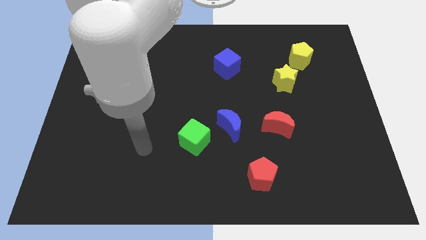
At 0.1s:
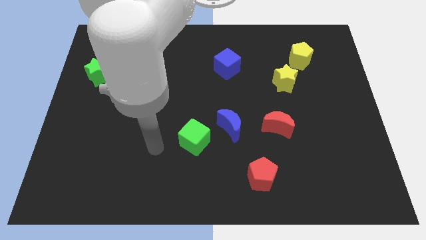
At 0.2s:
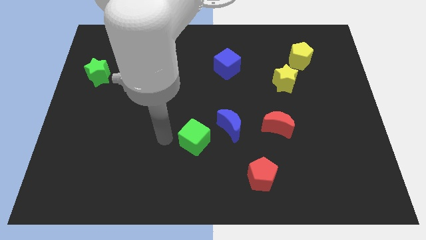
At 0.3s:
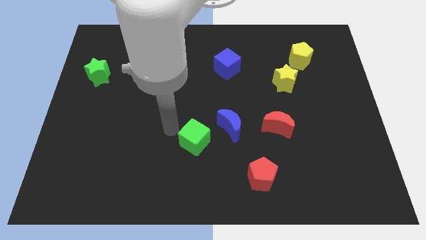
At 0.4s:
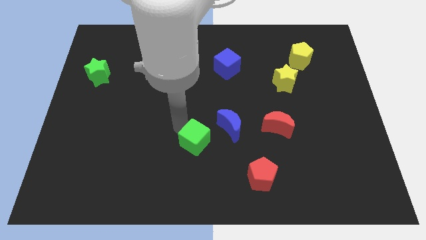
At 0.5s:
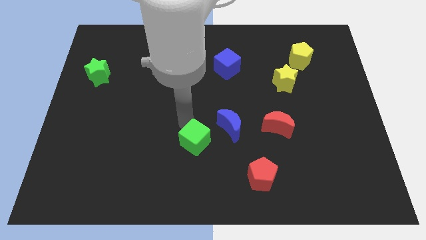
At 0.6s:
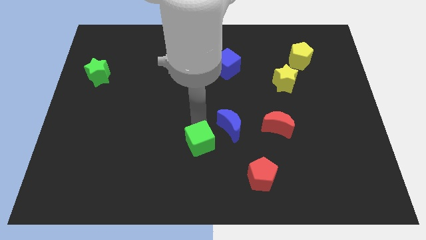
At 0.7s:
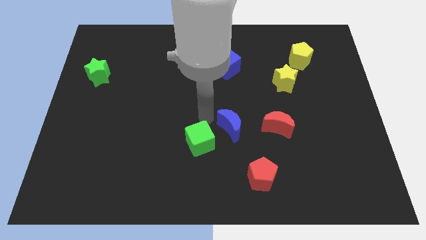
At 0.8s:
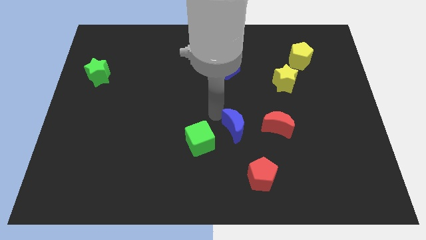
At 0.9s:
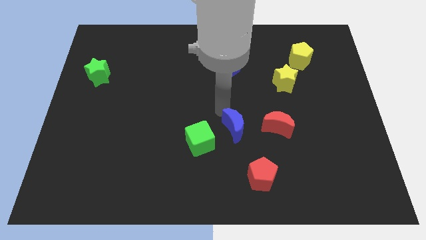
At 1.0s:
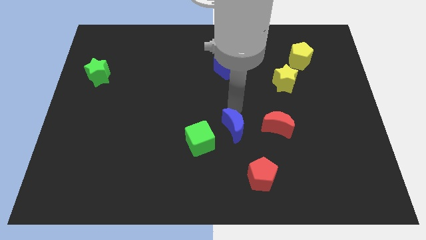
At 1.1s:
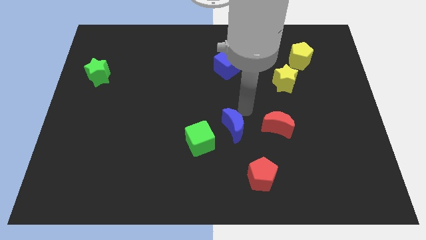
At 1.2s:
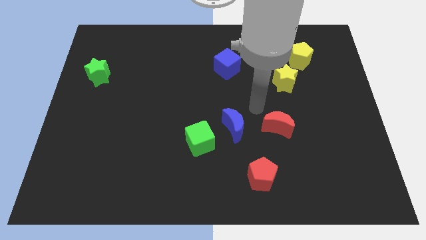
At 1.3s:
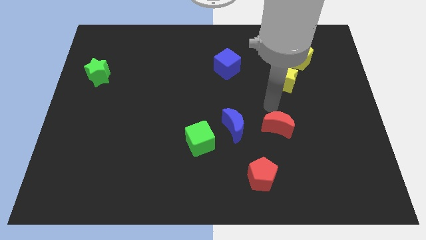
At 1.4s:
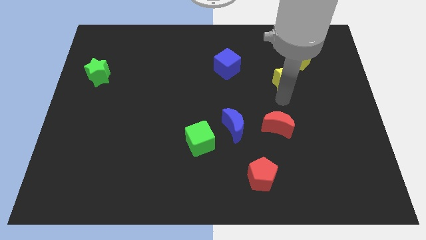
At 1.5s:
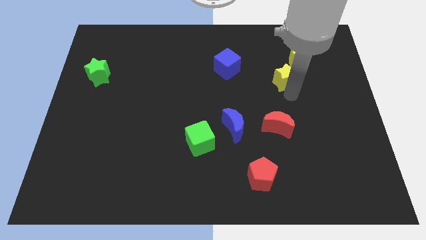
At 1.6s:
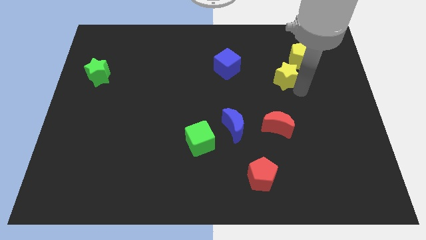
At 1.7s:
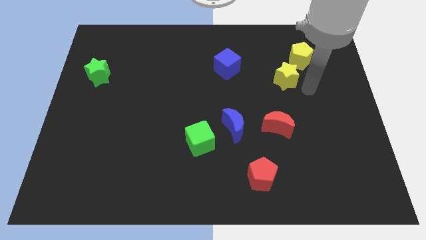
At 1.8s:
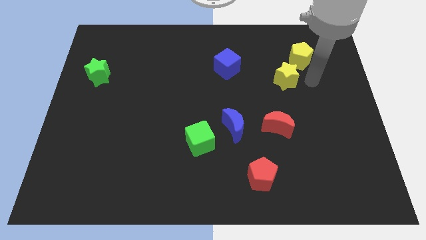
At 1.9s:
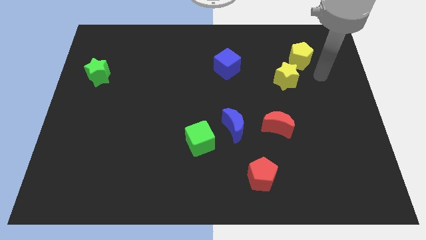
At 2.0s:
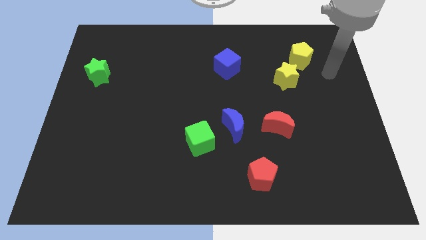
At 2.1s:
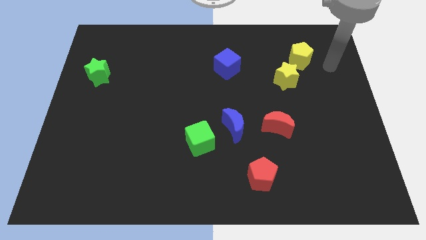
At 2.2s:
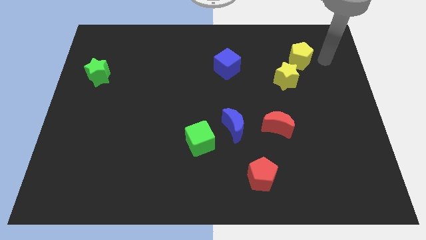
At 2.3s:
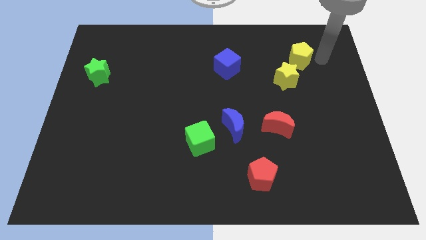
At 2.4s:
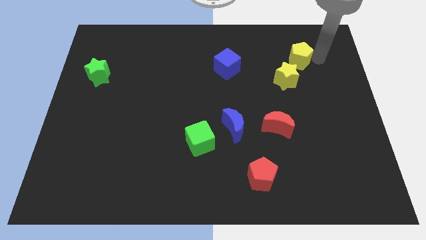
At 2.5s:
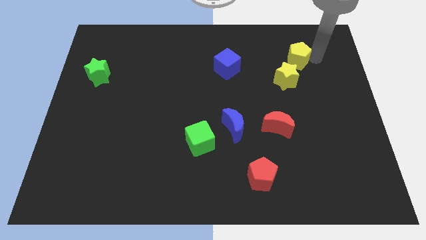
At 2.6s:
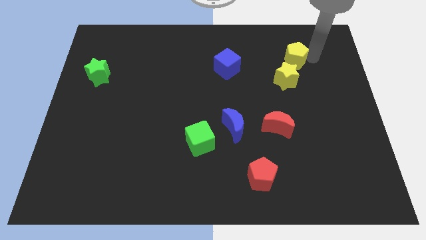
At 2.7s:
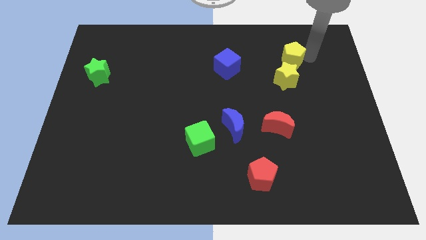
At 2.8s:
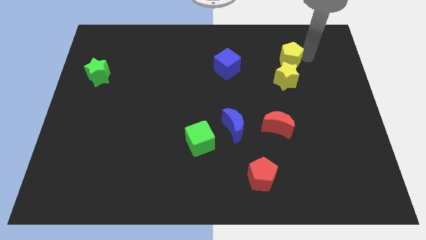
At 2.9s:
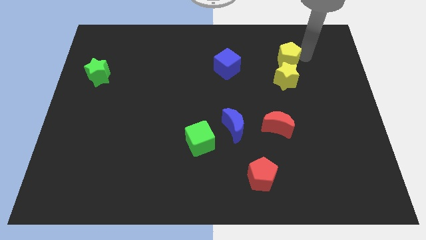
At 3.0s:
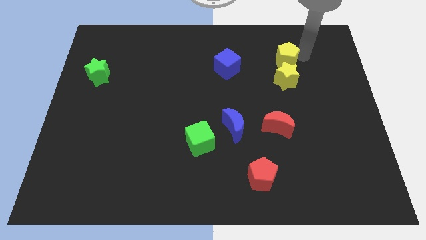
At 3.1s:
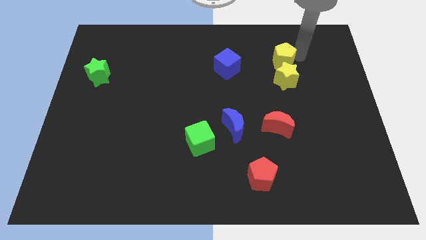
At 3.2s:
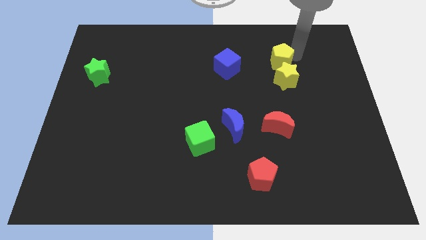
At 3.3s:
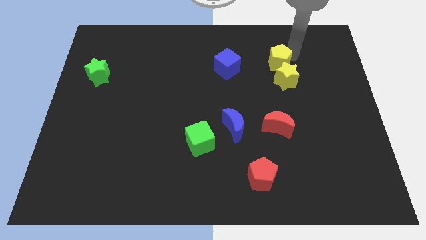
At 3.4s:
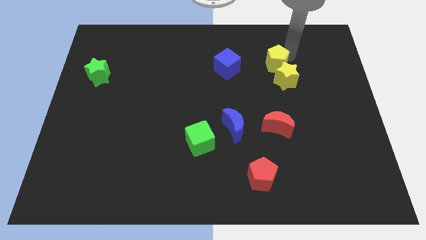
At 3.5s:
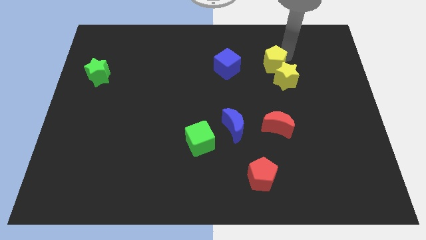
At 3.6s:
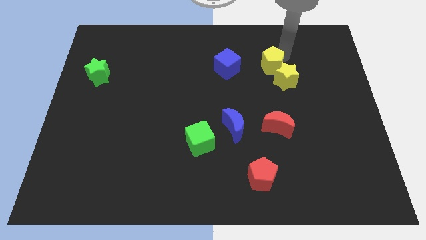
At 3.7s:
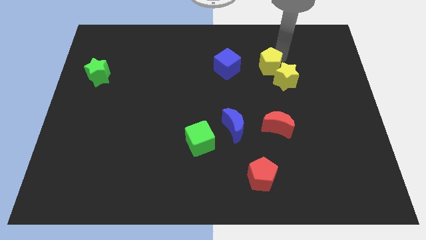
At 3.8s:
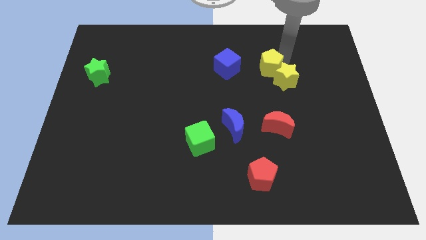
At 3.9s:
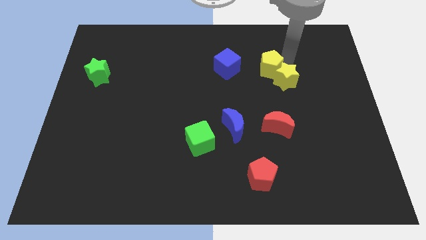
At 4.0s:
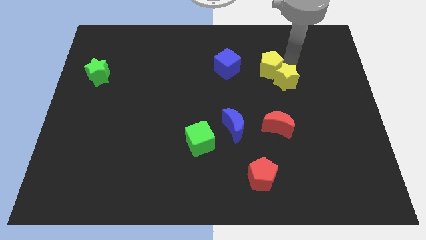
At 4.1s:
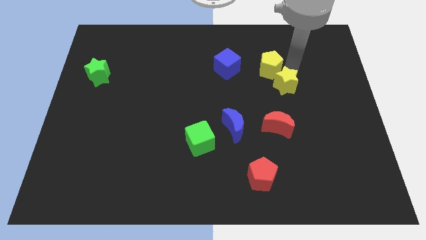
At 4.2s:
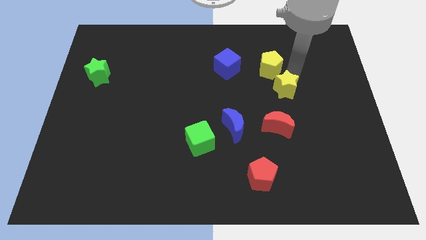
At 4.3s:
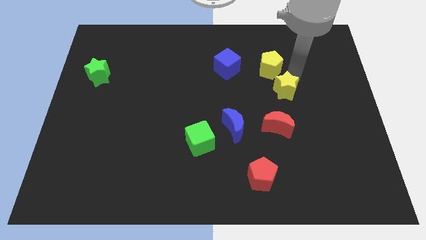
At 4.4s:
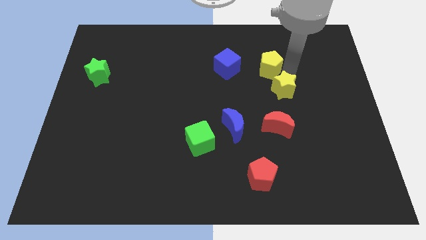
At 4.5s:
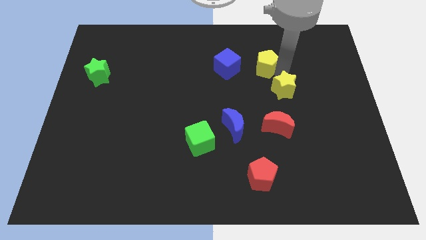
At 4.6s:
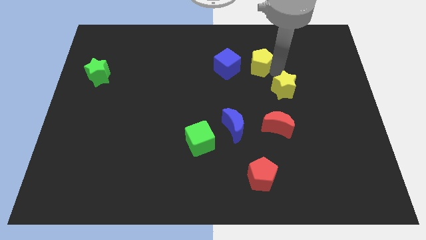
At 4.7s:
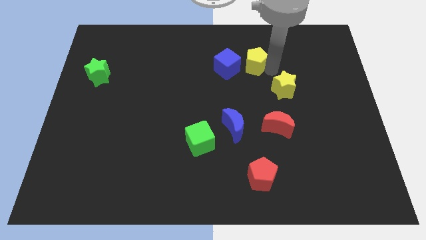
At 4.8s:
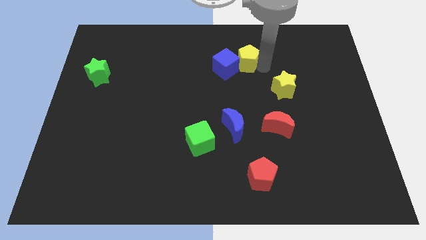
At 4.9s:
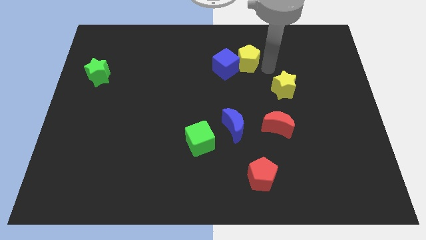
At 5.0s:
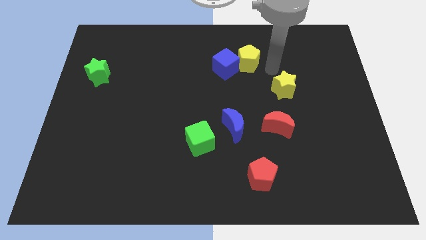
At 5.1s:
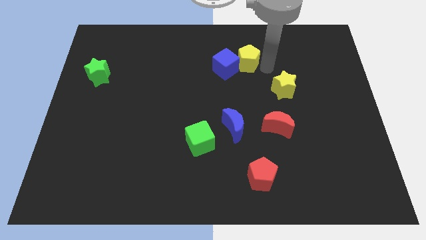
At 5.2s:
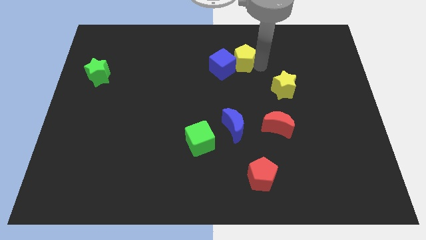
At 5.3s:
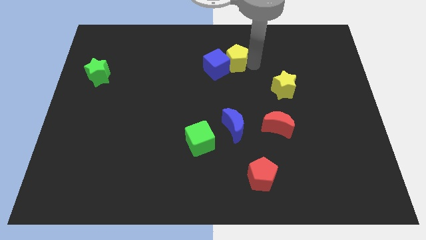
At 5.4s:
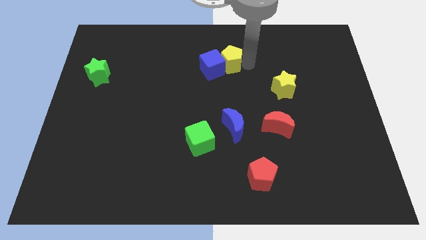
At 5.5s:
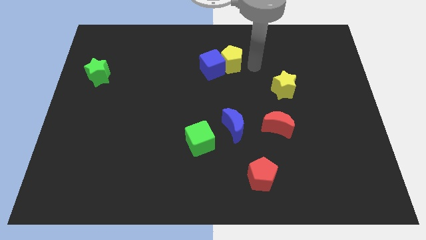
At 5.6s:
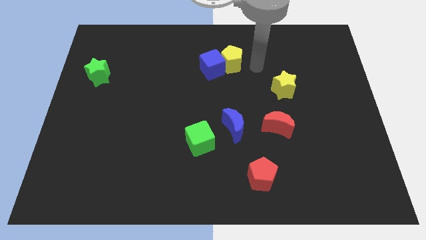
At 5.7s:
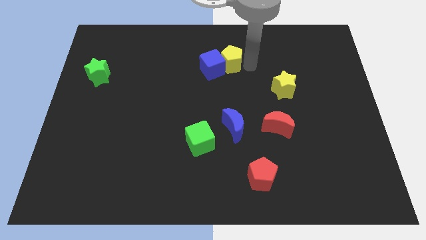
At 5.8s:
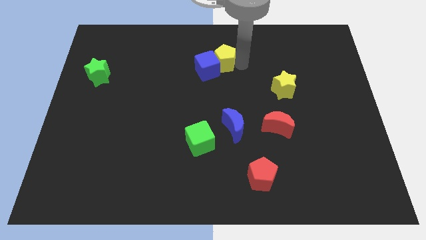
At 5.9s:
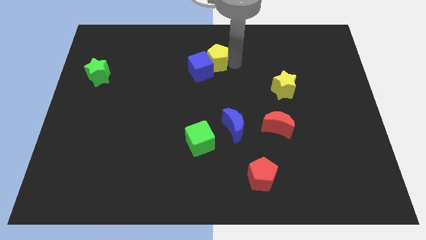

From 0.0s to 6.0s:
slide the yellow pentagon left

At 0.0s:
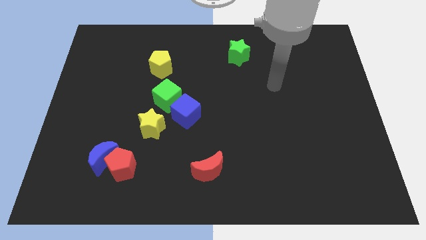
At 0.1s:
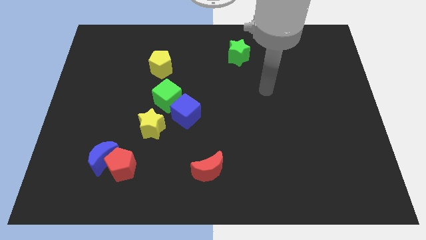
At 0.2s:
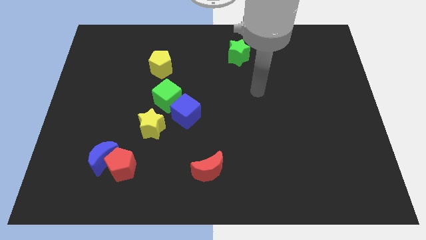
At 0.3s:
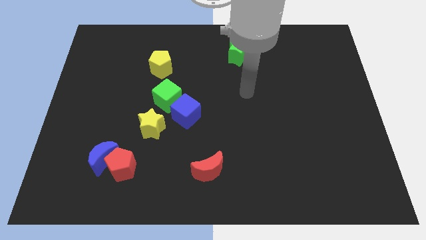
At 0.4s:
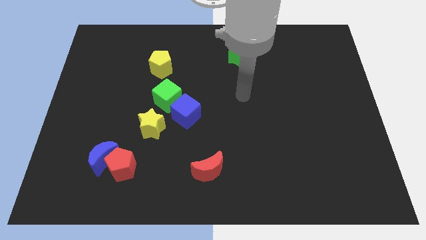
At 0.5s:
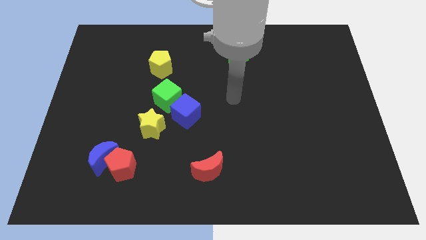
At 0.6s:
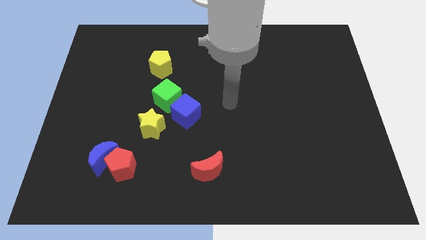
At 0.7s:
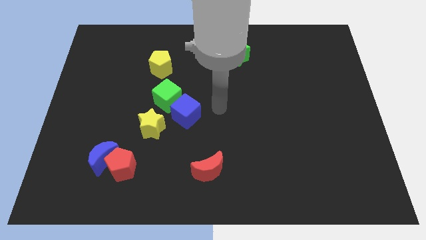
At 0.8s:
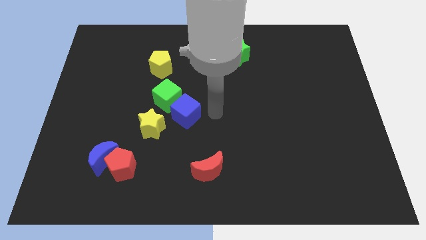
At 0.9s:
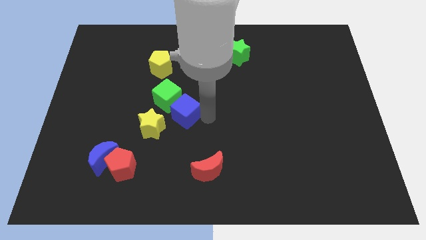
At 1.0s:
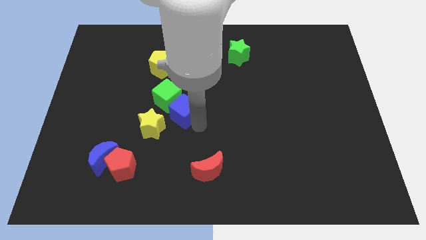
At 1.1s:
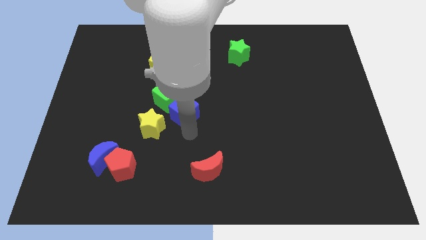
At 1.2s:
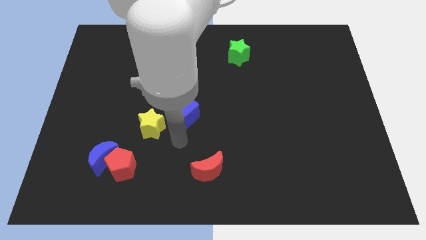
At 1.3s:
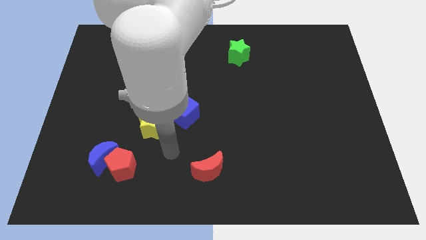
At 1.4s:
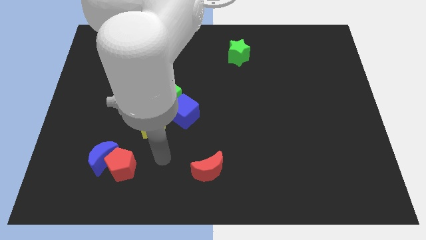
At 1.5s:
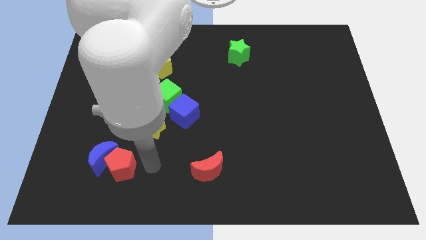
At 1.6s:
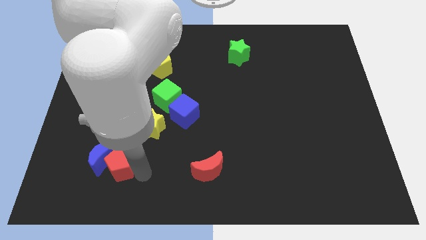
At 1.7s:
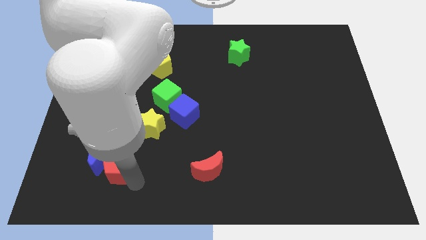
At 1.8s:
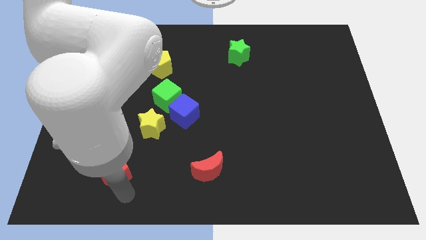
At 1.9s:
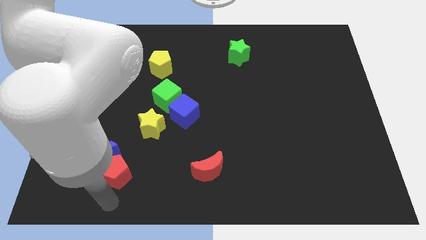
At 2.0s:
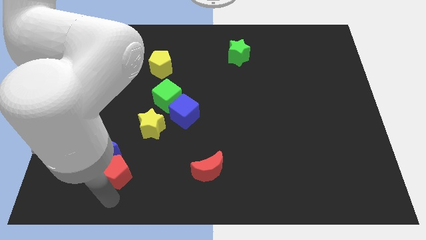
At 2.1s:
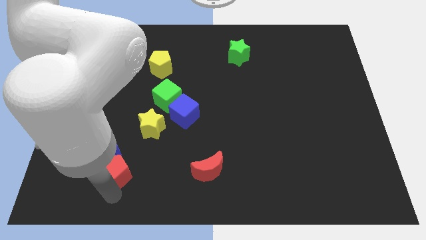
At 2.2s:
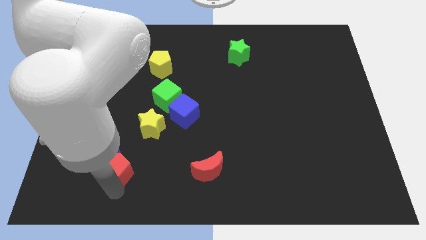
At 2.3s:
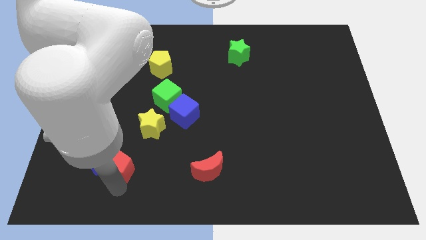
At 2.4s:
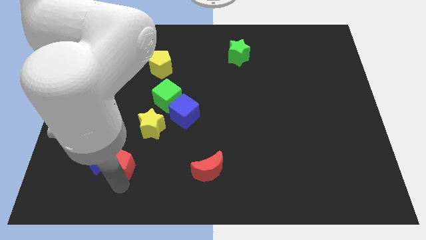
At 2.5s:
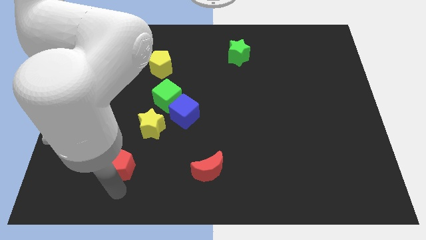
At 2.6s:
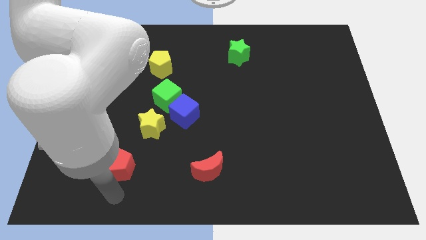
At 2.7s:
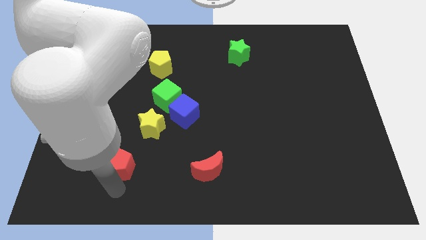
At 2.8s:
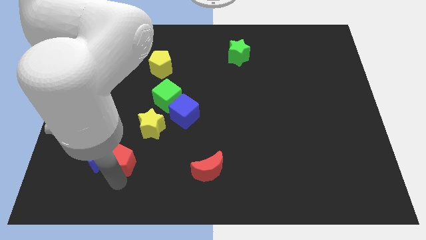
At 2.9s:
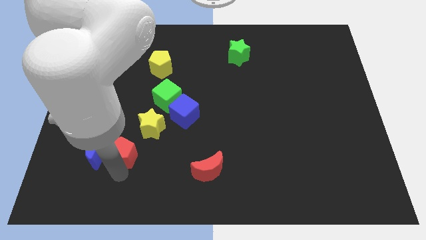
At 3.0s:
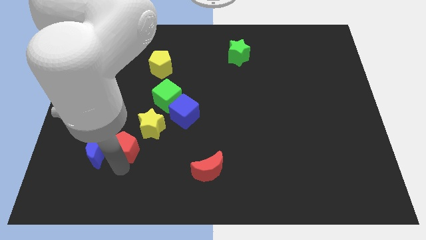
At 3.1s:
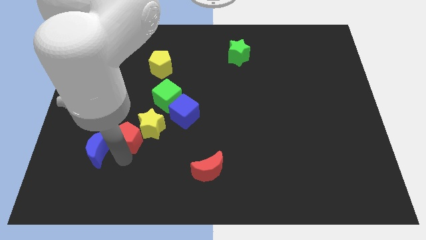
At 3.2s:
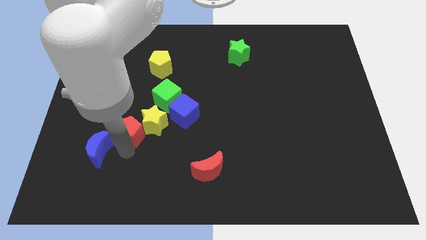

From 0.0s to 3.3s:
slide the red pentagon a bit upwards
